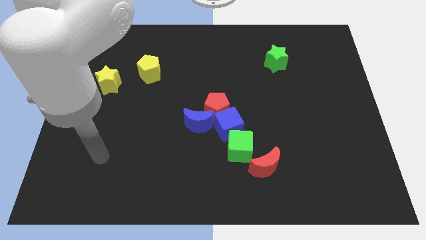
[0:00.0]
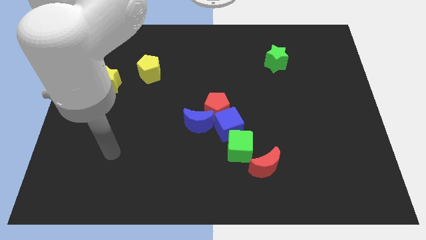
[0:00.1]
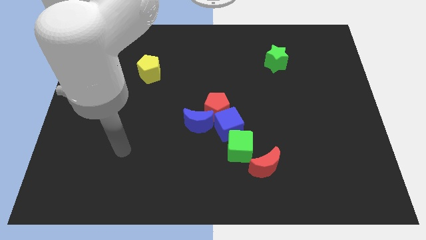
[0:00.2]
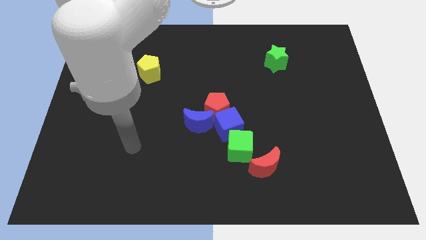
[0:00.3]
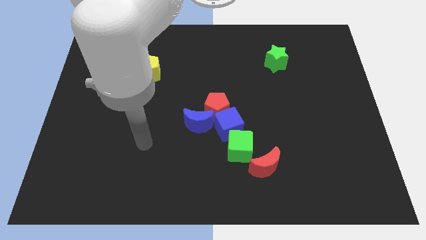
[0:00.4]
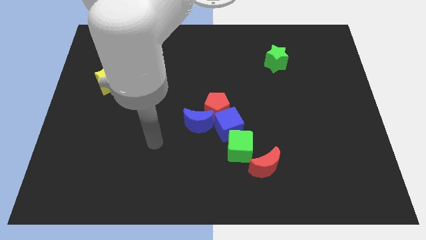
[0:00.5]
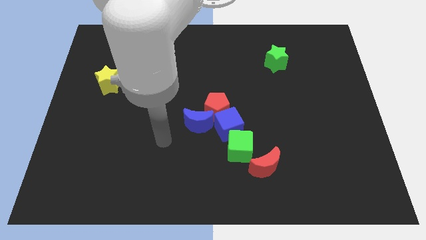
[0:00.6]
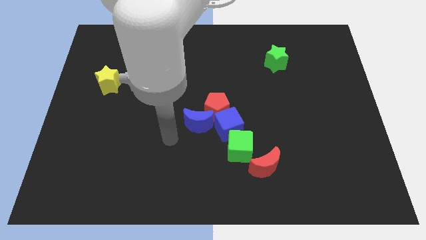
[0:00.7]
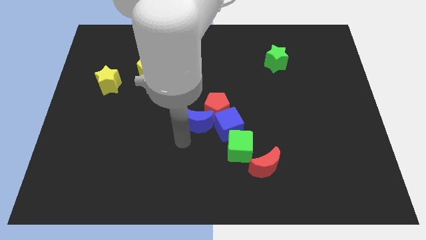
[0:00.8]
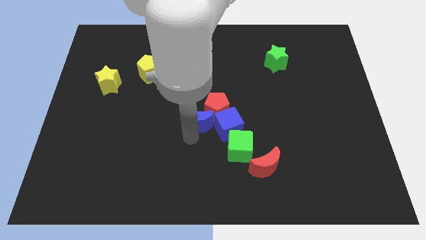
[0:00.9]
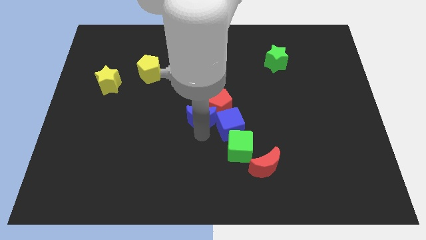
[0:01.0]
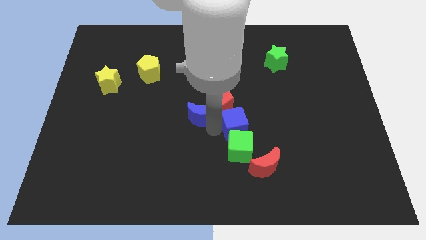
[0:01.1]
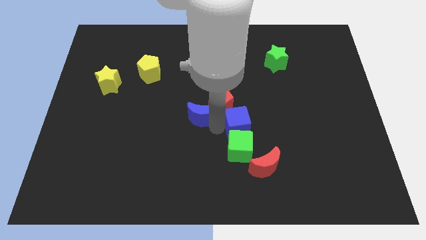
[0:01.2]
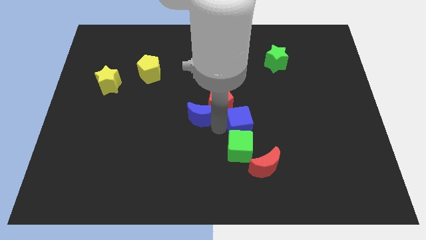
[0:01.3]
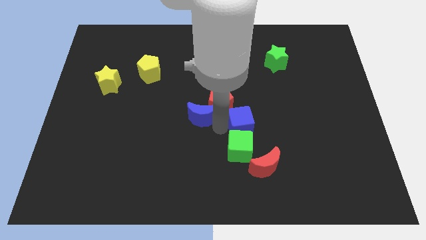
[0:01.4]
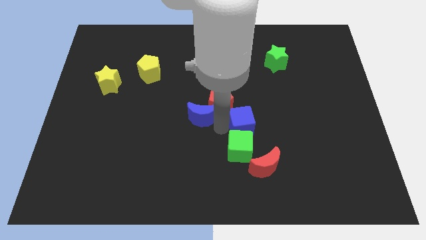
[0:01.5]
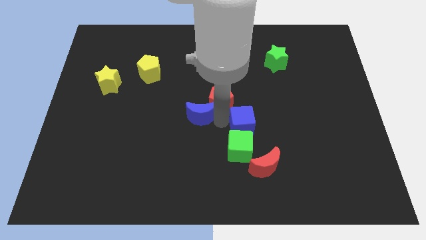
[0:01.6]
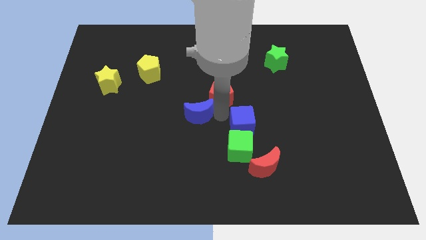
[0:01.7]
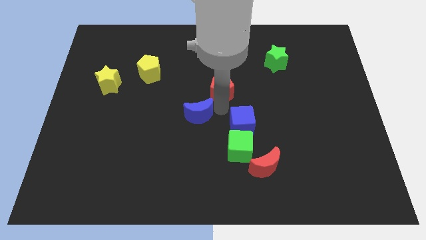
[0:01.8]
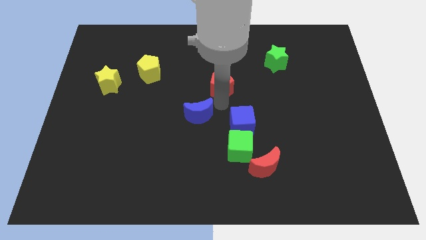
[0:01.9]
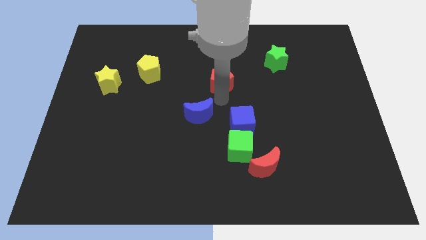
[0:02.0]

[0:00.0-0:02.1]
move the red pentagon away from the blue cube and blue moon

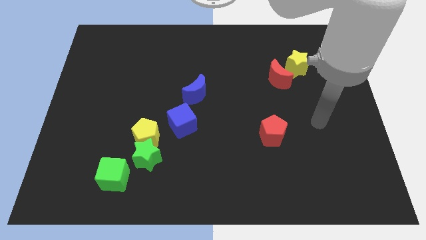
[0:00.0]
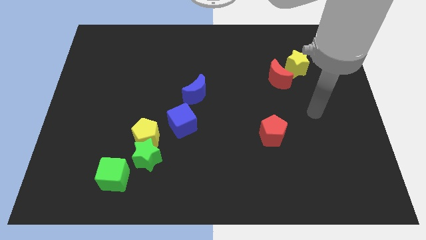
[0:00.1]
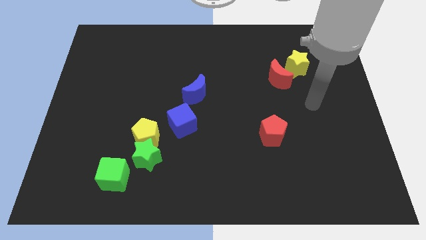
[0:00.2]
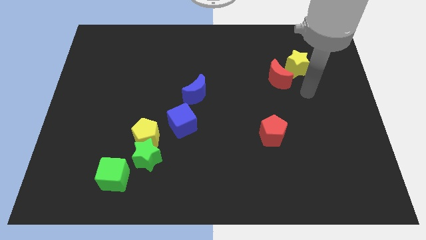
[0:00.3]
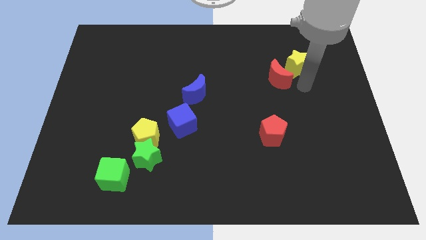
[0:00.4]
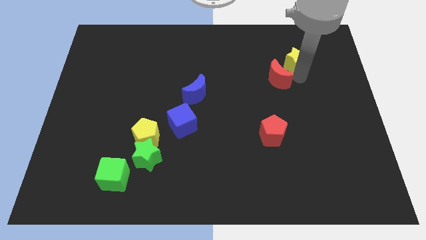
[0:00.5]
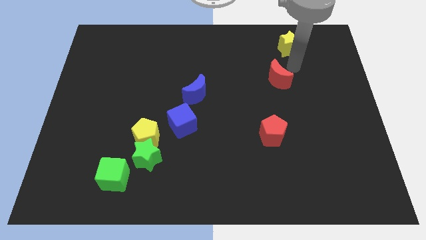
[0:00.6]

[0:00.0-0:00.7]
separate the red moon from the yellow star

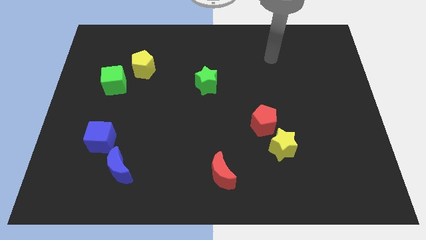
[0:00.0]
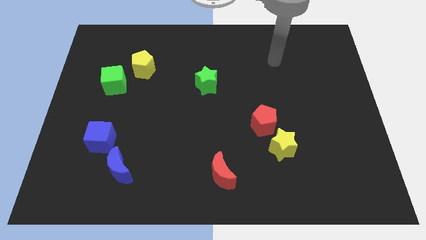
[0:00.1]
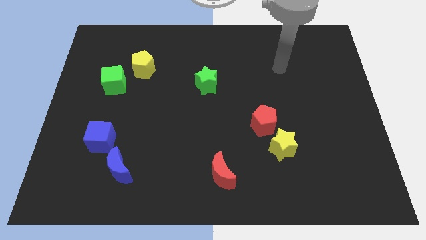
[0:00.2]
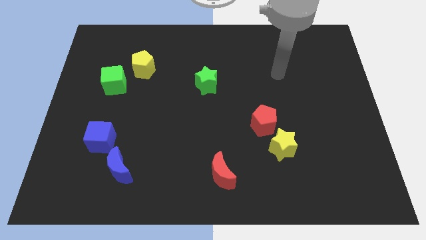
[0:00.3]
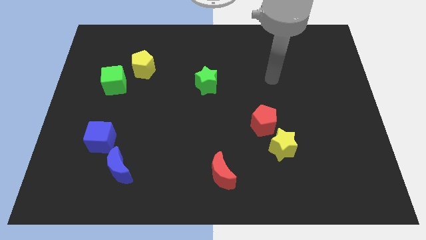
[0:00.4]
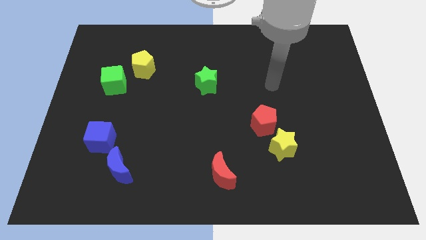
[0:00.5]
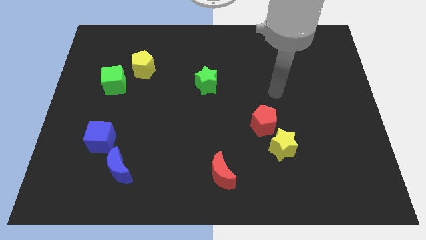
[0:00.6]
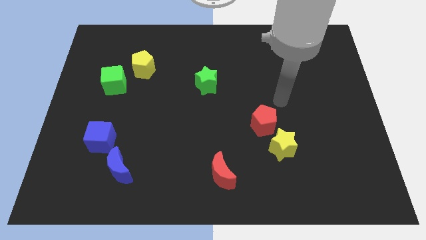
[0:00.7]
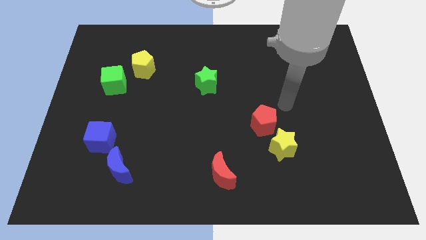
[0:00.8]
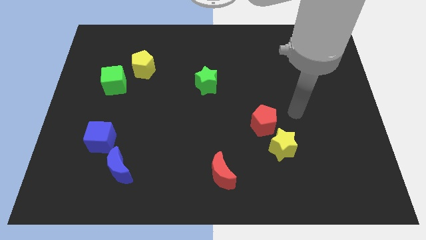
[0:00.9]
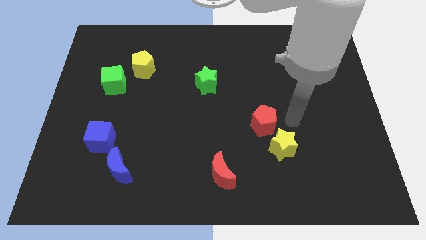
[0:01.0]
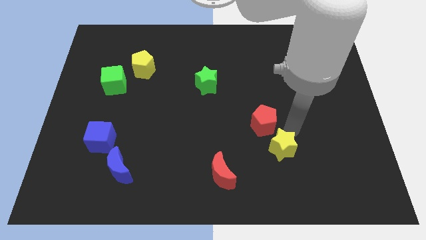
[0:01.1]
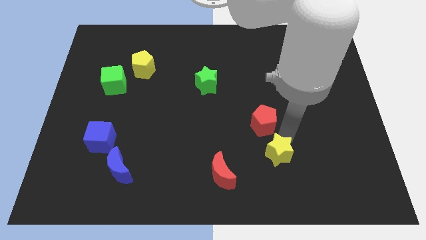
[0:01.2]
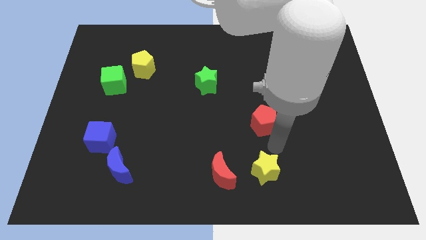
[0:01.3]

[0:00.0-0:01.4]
pull the red pentagon apart from the yellow star

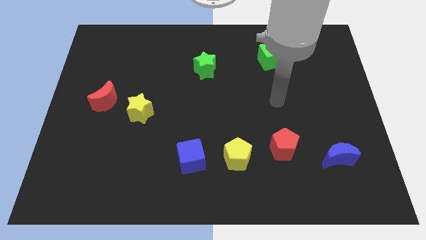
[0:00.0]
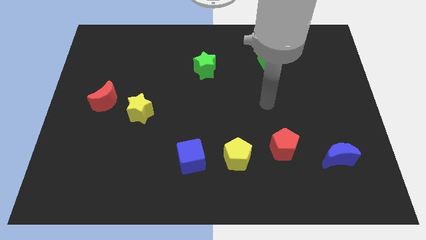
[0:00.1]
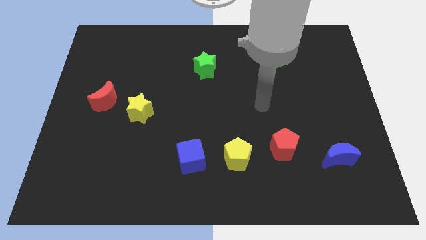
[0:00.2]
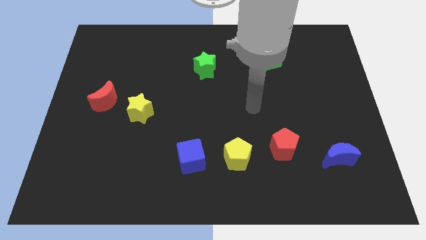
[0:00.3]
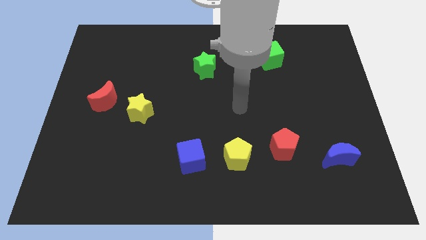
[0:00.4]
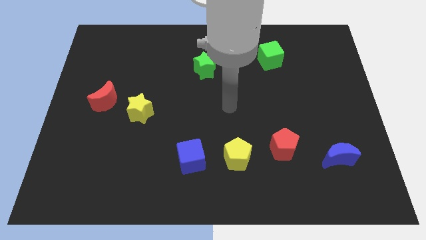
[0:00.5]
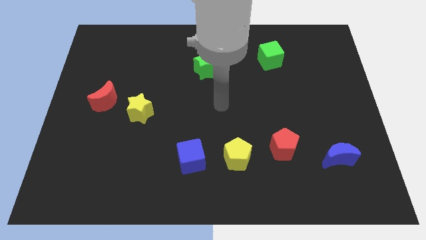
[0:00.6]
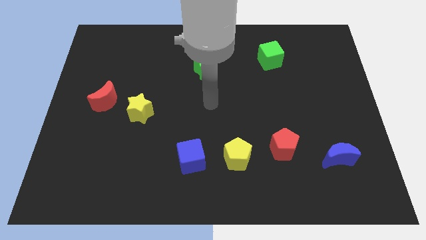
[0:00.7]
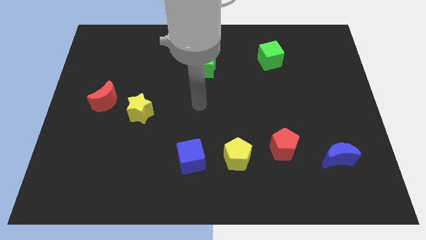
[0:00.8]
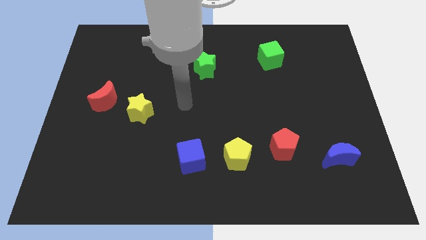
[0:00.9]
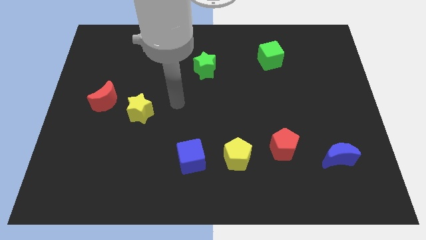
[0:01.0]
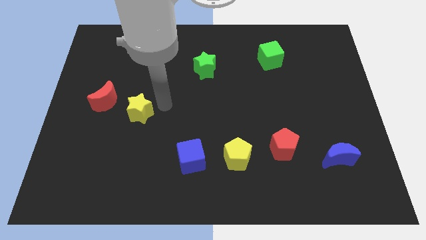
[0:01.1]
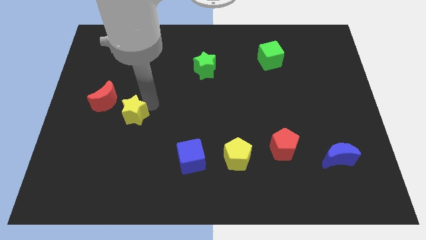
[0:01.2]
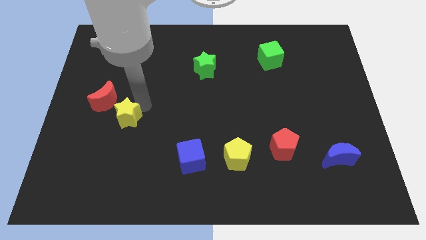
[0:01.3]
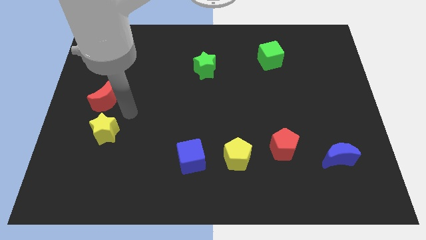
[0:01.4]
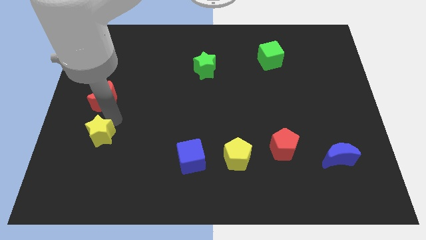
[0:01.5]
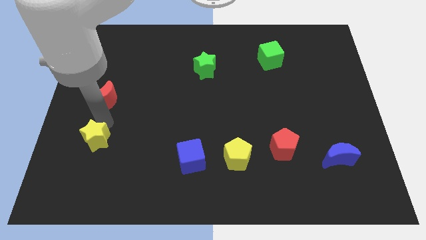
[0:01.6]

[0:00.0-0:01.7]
pull the red moon apart from the yellow star

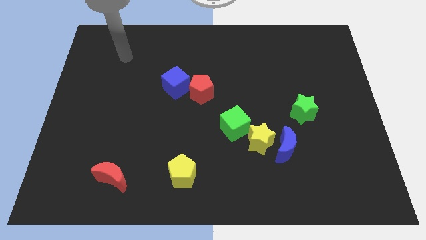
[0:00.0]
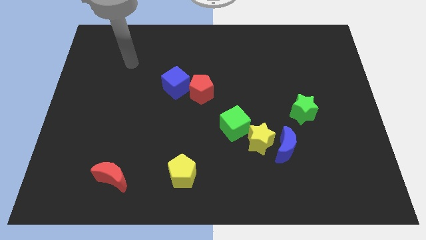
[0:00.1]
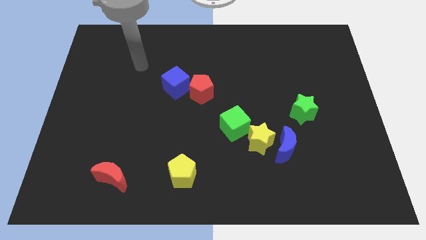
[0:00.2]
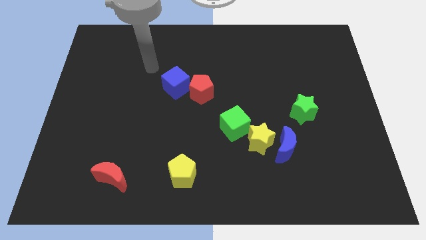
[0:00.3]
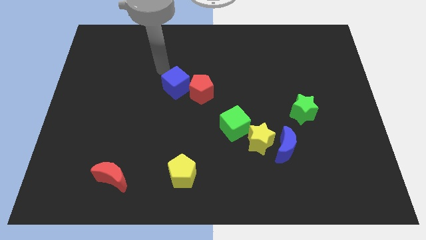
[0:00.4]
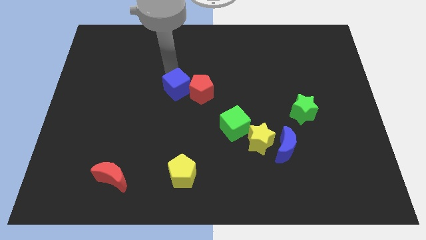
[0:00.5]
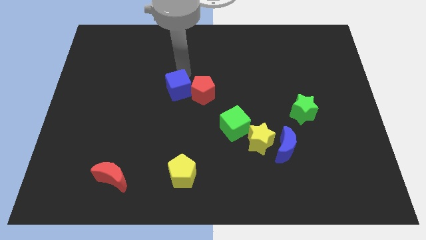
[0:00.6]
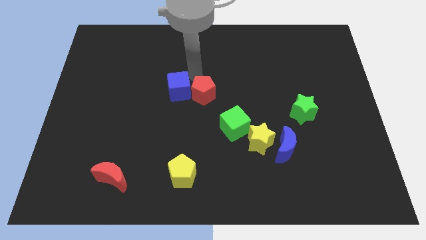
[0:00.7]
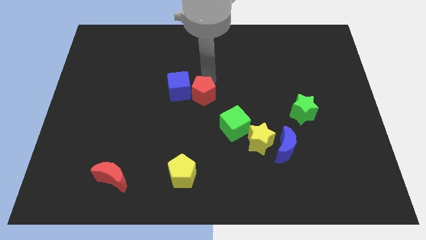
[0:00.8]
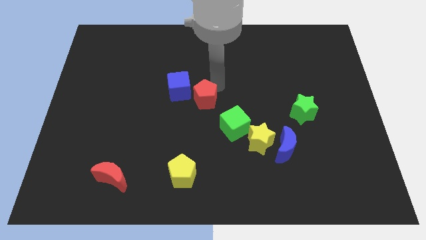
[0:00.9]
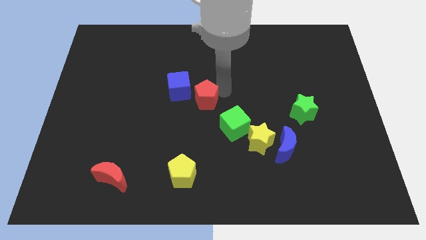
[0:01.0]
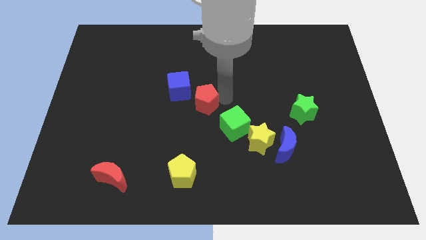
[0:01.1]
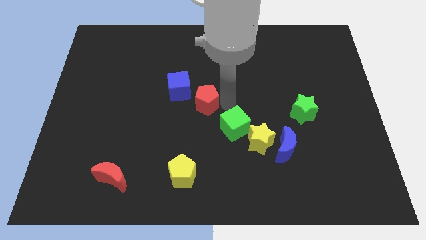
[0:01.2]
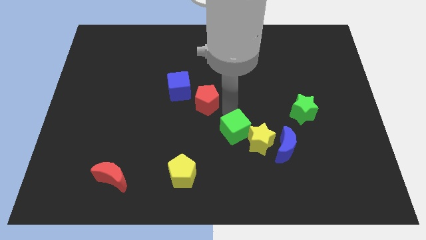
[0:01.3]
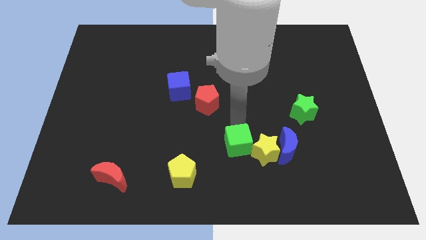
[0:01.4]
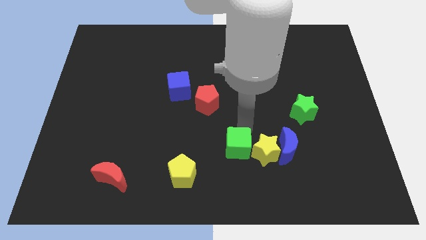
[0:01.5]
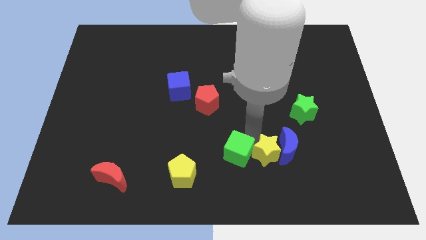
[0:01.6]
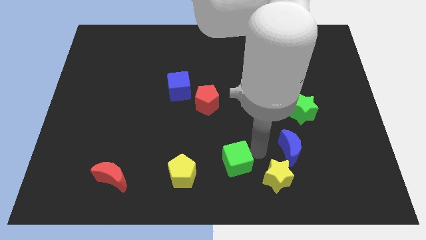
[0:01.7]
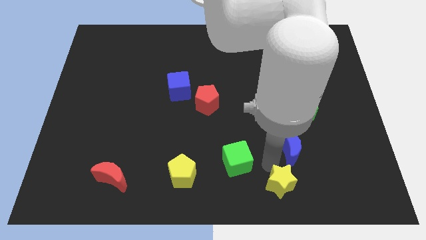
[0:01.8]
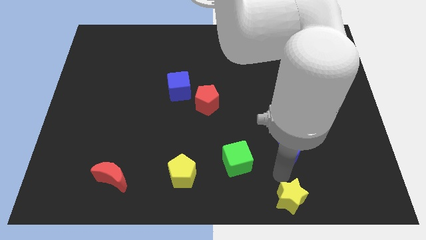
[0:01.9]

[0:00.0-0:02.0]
separate the blue moon from the yellow star

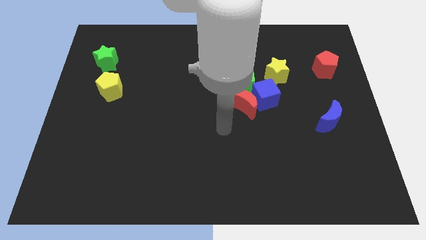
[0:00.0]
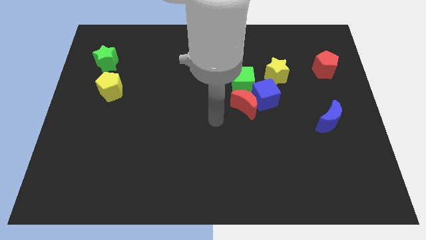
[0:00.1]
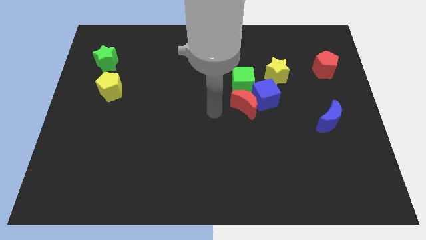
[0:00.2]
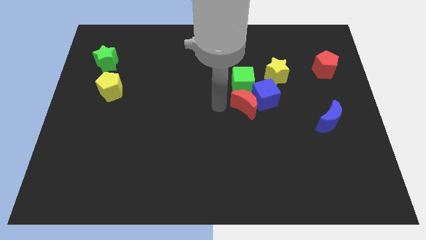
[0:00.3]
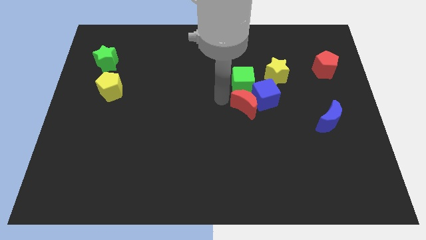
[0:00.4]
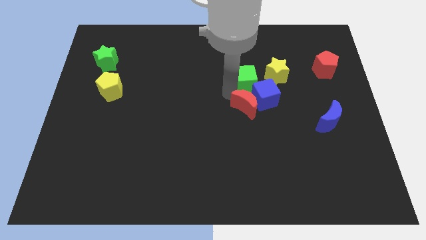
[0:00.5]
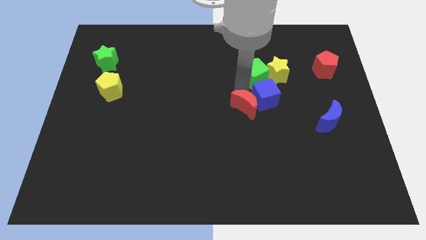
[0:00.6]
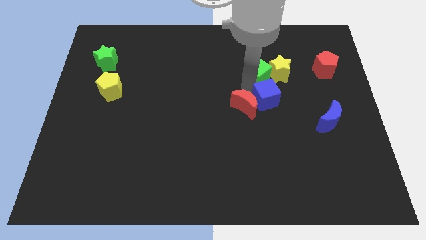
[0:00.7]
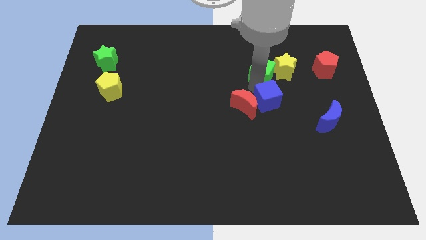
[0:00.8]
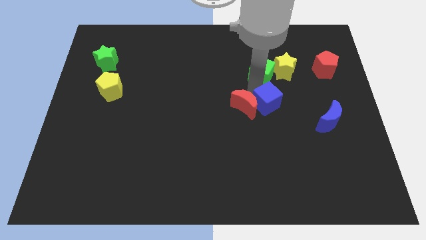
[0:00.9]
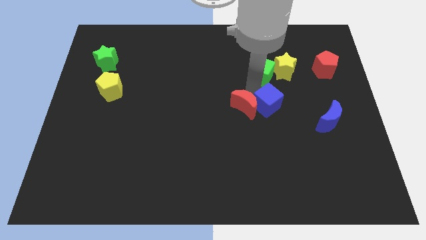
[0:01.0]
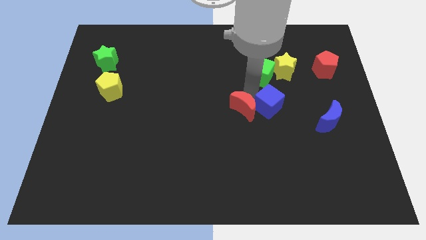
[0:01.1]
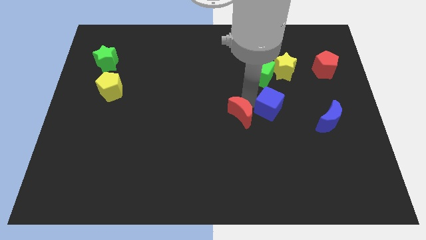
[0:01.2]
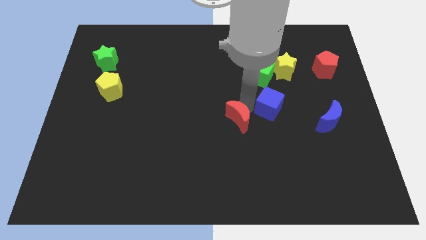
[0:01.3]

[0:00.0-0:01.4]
move the red moon away from the blue cube and green cube
